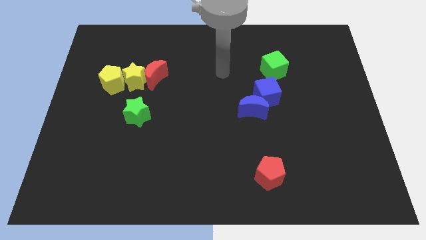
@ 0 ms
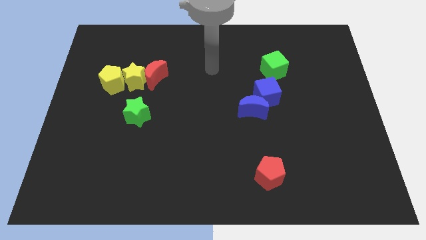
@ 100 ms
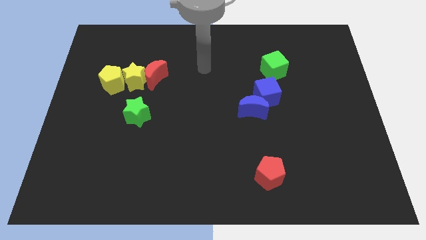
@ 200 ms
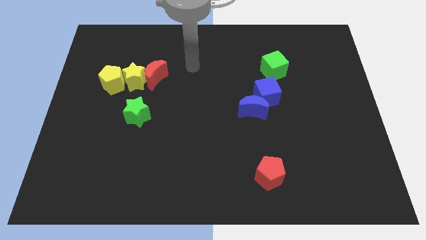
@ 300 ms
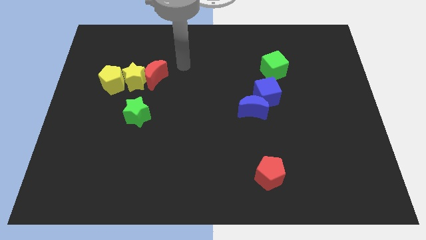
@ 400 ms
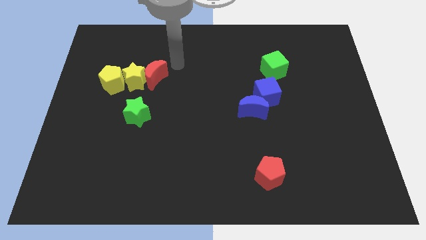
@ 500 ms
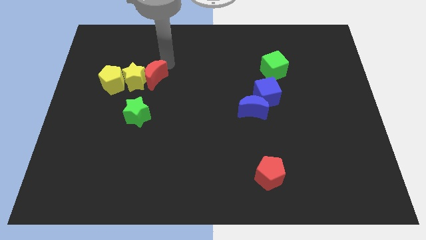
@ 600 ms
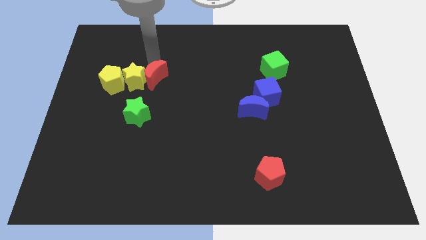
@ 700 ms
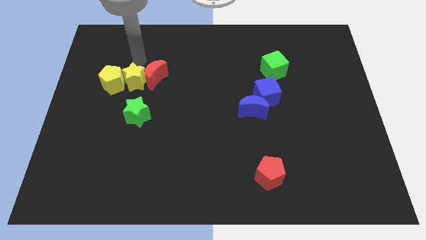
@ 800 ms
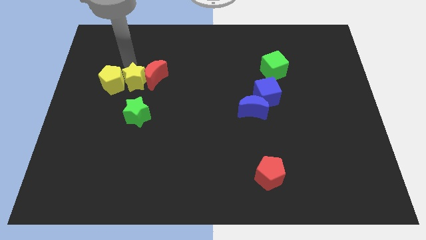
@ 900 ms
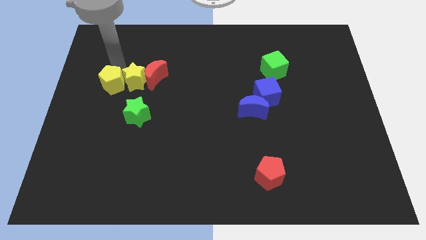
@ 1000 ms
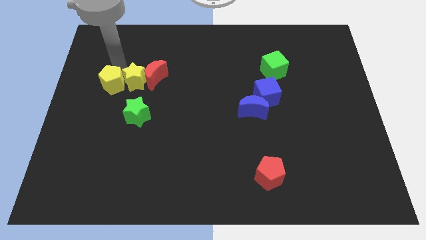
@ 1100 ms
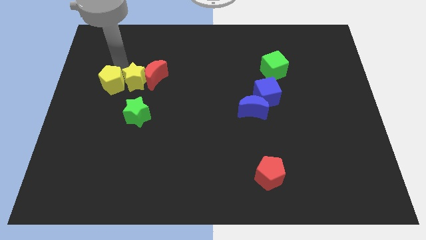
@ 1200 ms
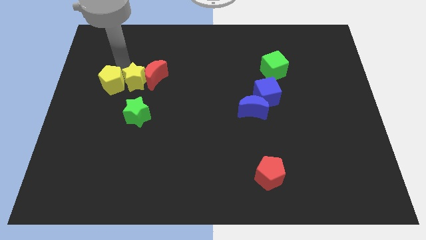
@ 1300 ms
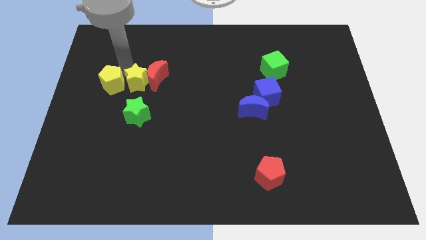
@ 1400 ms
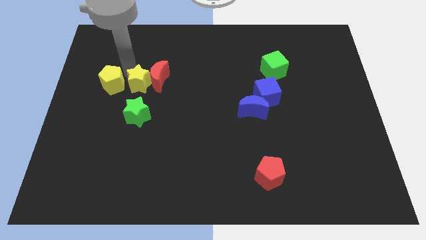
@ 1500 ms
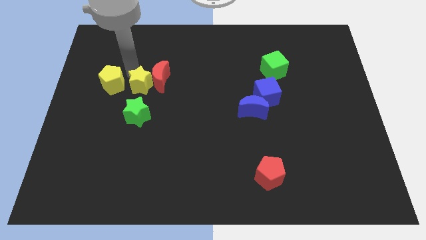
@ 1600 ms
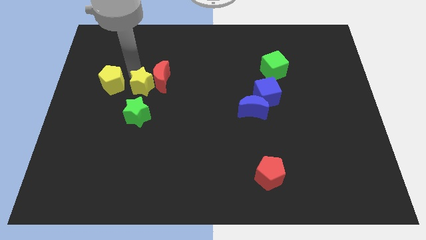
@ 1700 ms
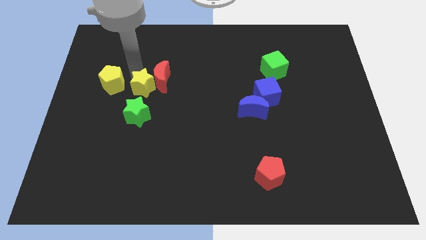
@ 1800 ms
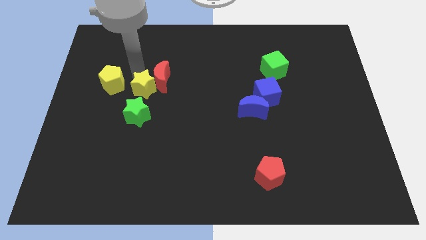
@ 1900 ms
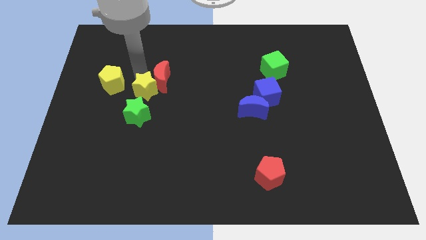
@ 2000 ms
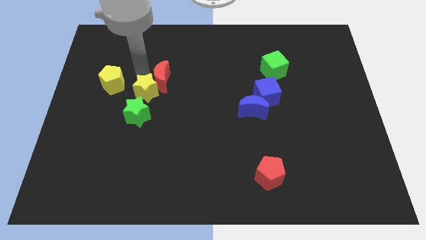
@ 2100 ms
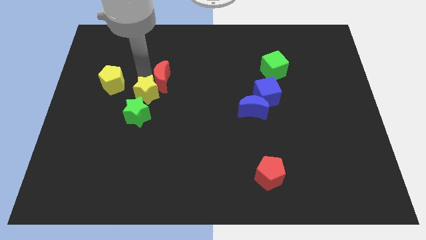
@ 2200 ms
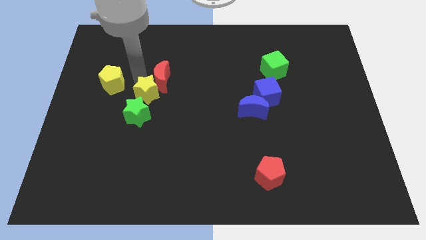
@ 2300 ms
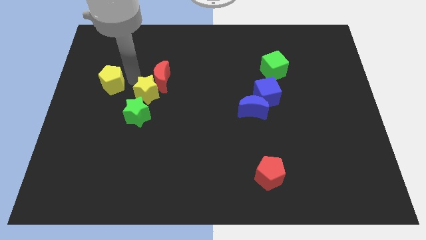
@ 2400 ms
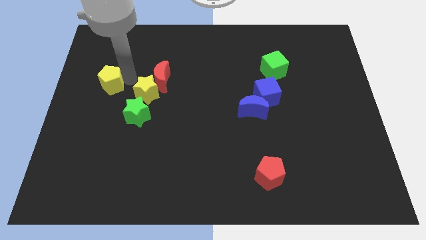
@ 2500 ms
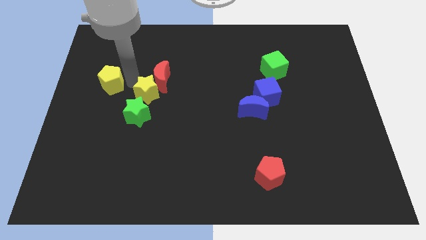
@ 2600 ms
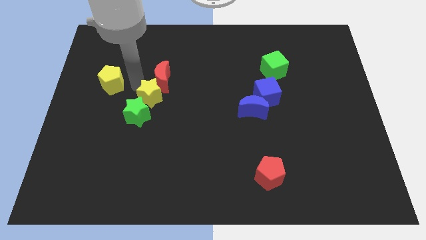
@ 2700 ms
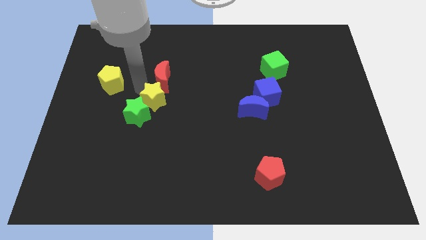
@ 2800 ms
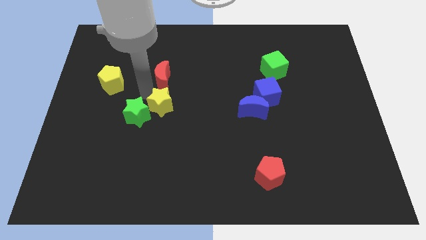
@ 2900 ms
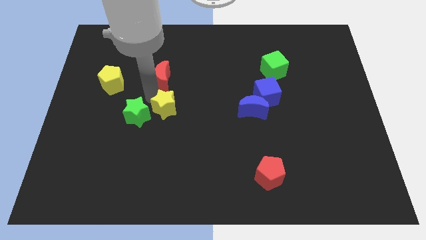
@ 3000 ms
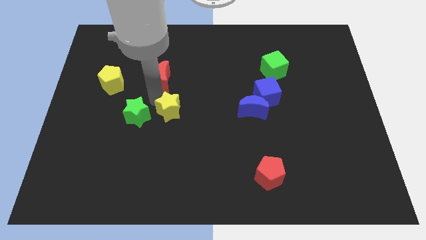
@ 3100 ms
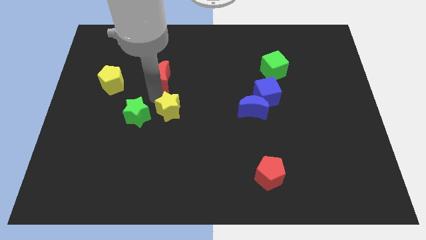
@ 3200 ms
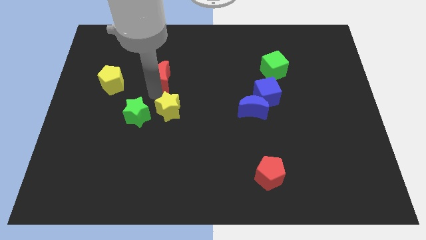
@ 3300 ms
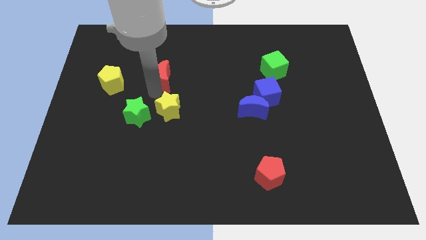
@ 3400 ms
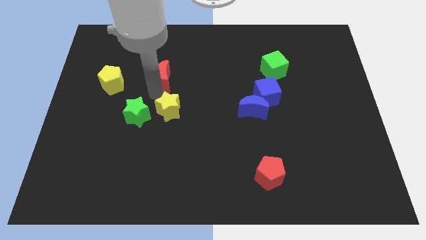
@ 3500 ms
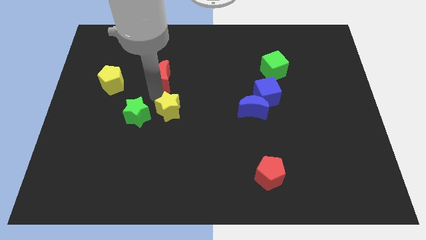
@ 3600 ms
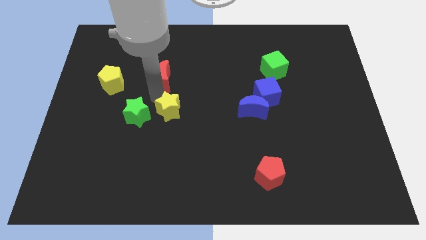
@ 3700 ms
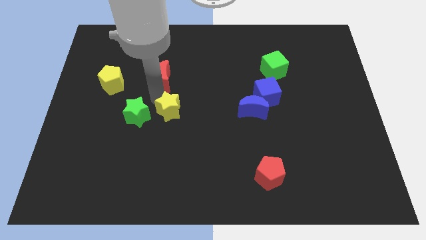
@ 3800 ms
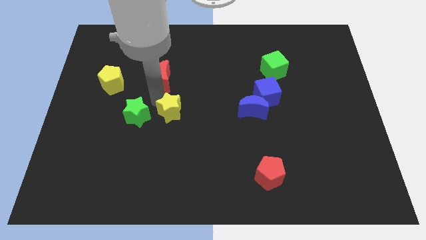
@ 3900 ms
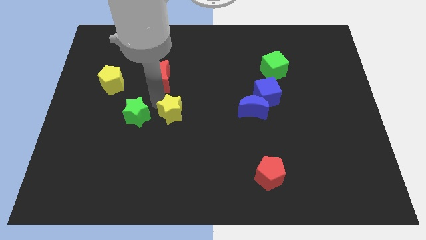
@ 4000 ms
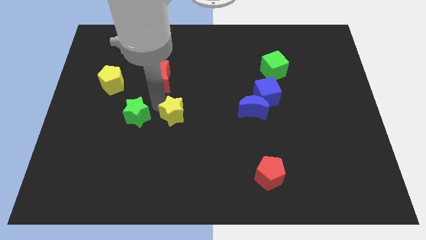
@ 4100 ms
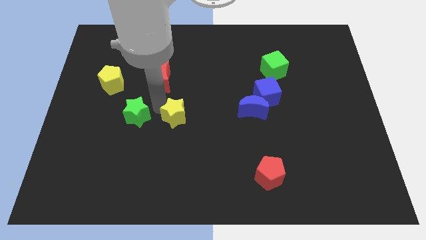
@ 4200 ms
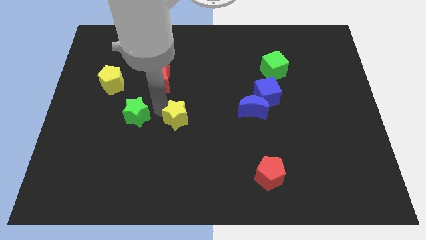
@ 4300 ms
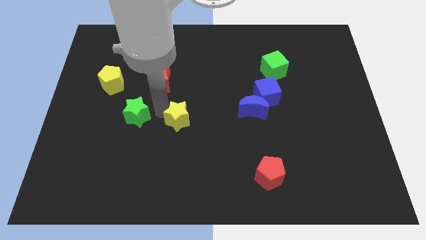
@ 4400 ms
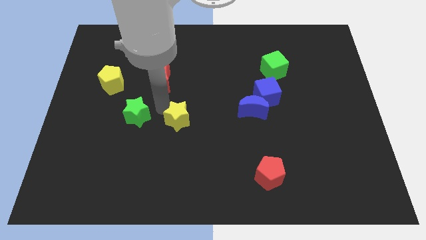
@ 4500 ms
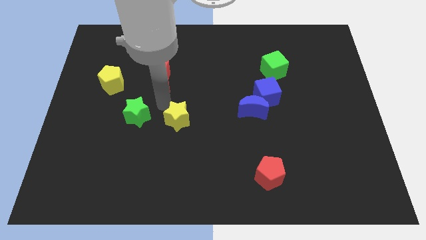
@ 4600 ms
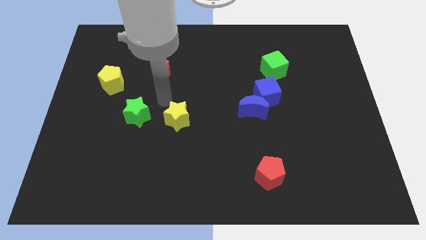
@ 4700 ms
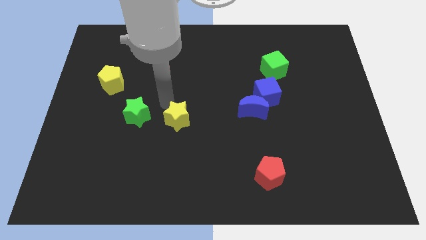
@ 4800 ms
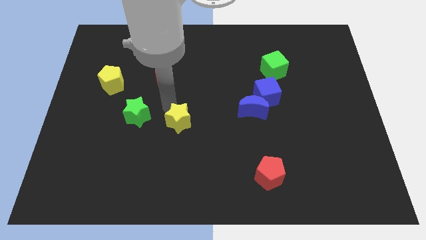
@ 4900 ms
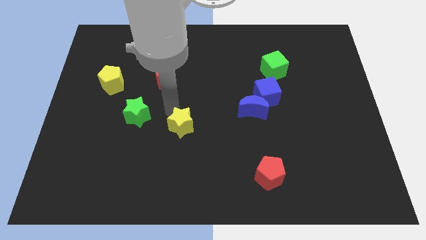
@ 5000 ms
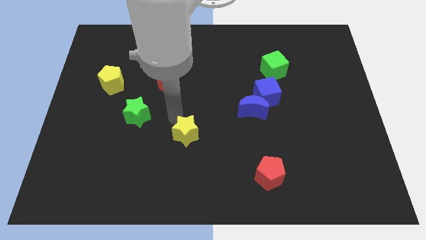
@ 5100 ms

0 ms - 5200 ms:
move the yellow star diagonally downwards and right

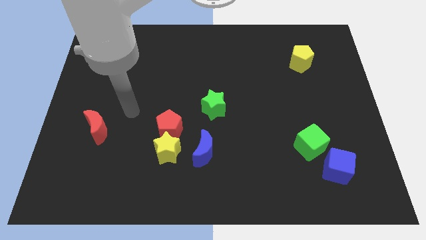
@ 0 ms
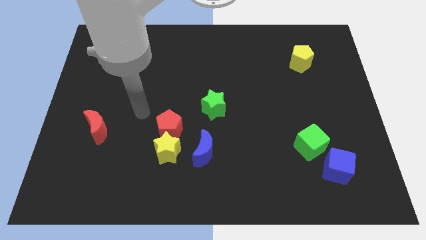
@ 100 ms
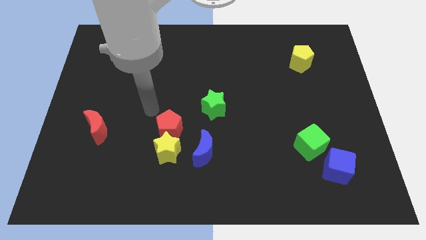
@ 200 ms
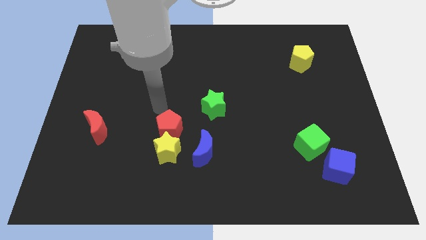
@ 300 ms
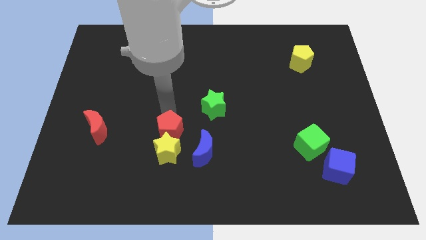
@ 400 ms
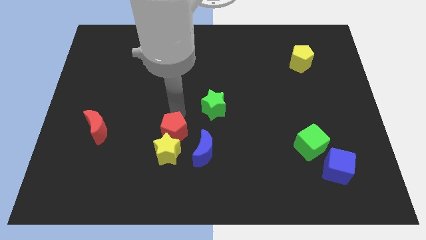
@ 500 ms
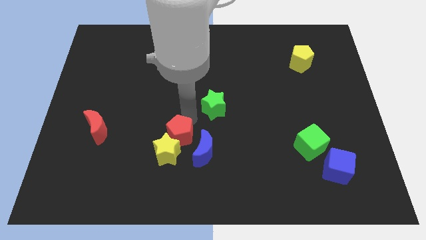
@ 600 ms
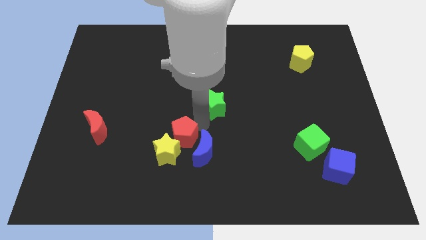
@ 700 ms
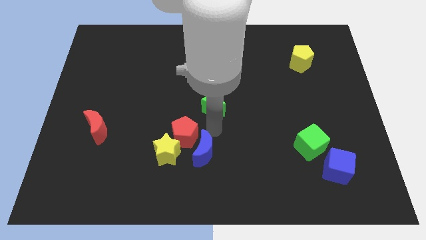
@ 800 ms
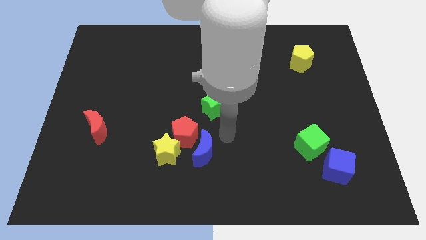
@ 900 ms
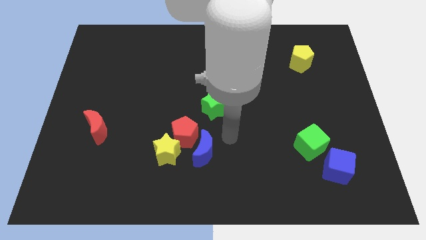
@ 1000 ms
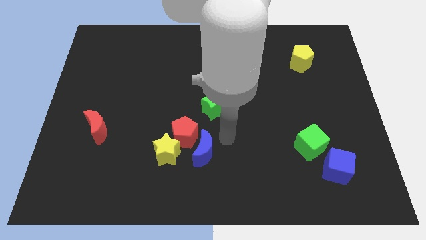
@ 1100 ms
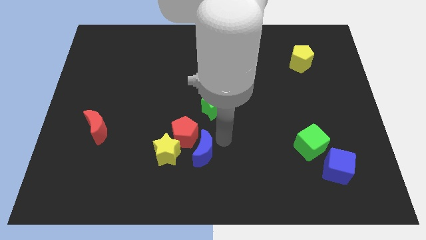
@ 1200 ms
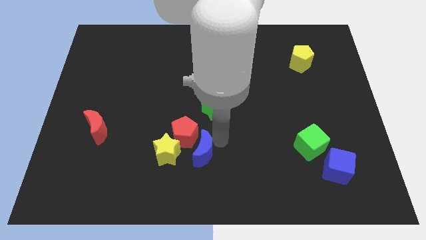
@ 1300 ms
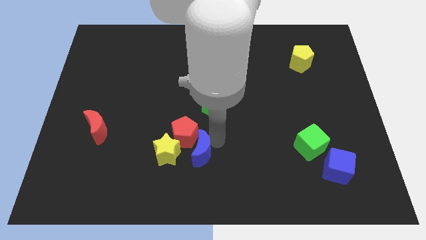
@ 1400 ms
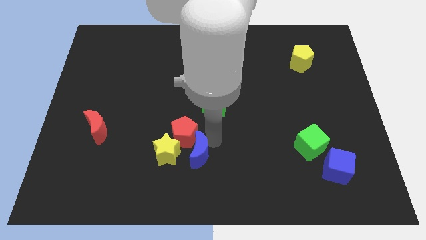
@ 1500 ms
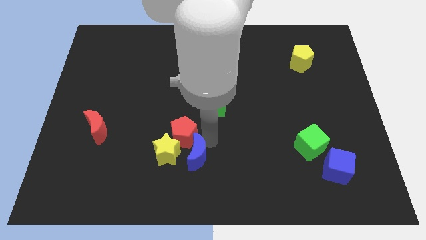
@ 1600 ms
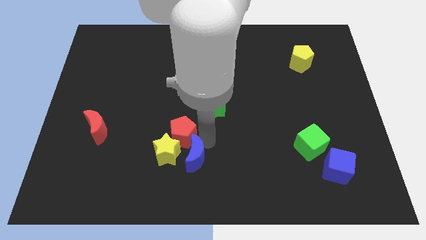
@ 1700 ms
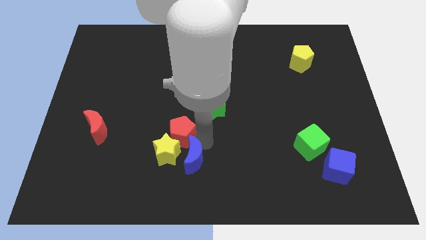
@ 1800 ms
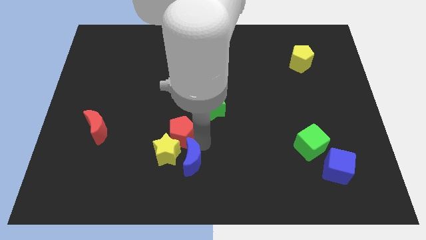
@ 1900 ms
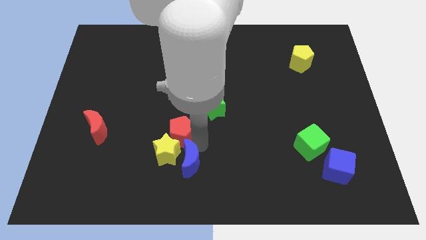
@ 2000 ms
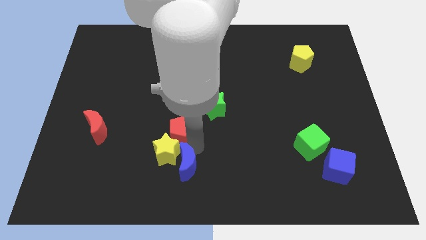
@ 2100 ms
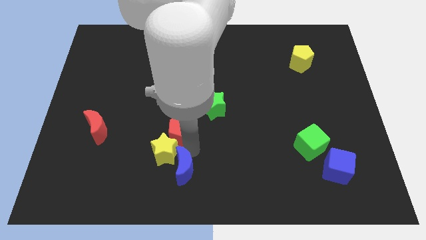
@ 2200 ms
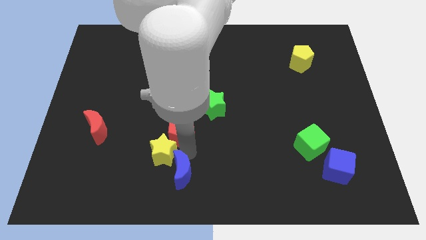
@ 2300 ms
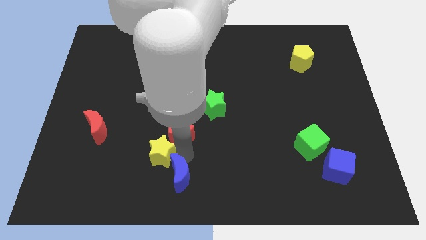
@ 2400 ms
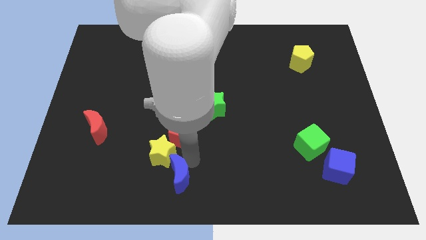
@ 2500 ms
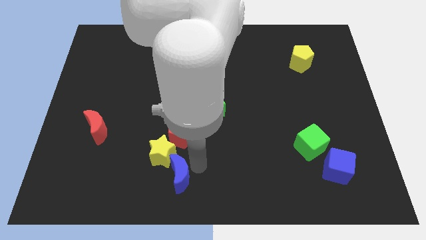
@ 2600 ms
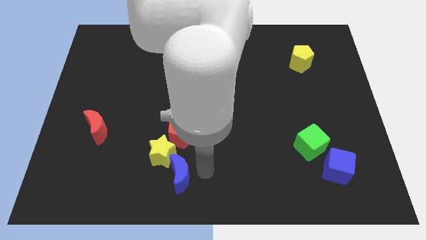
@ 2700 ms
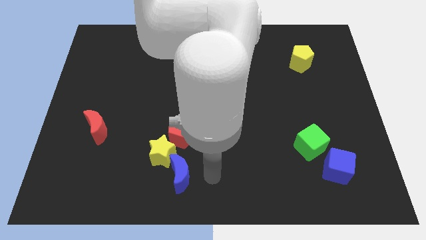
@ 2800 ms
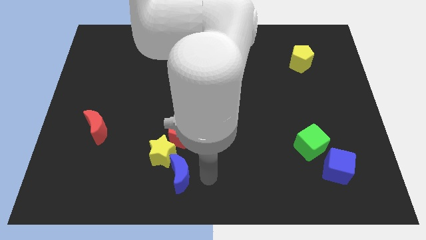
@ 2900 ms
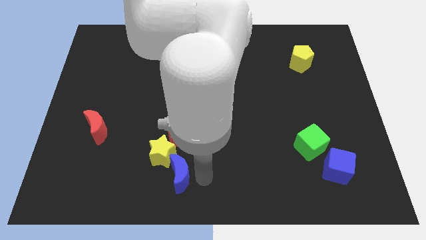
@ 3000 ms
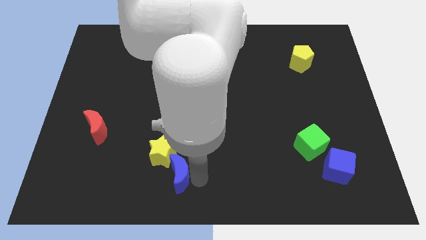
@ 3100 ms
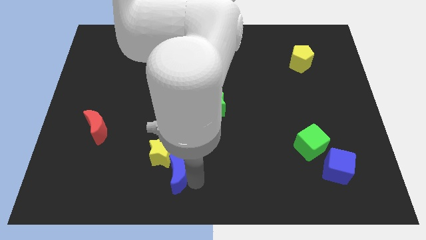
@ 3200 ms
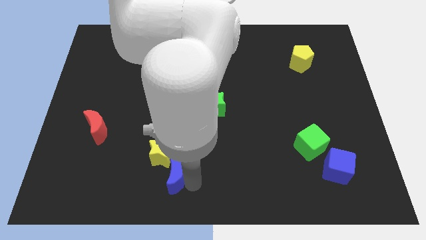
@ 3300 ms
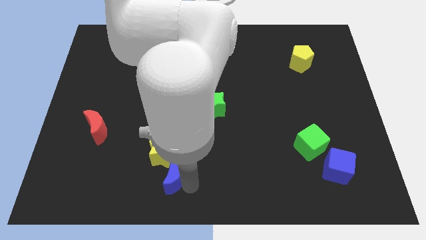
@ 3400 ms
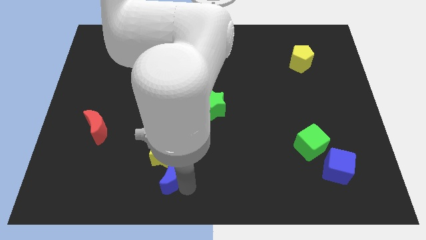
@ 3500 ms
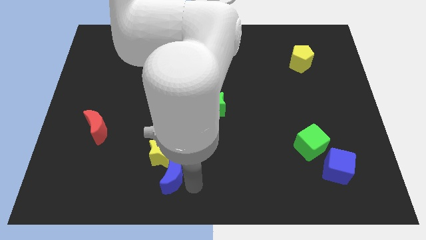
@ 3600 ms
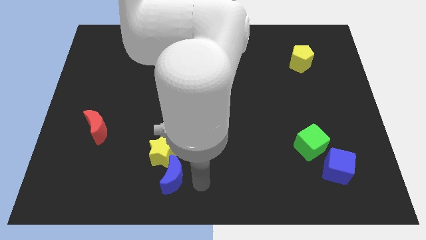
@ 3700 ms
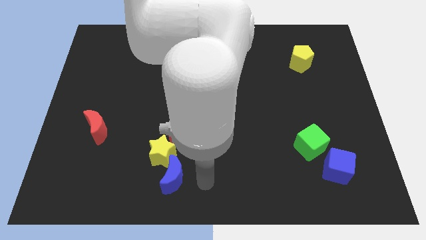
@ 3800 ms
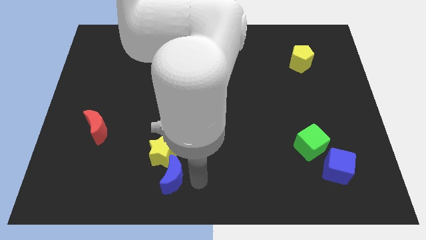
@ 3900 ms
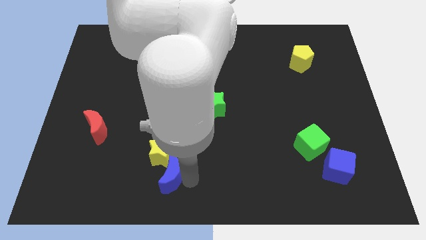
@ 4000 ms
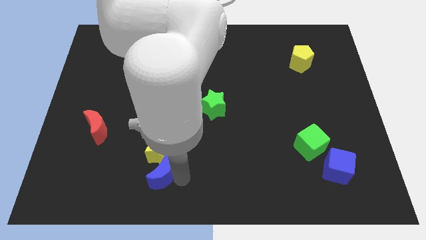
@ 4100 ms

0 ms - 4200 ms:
slightly move the blue moon left
